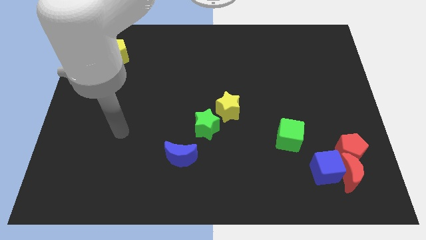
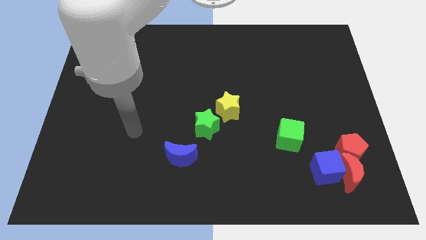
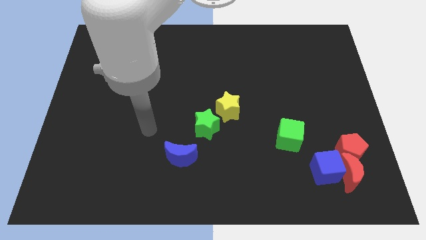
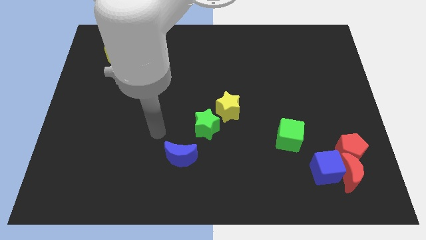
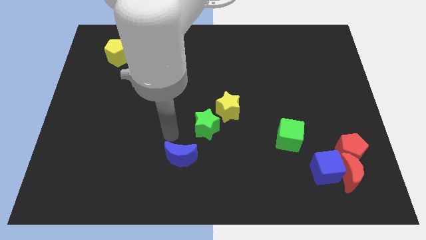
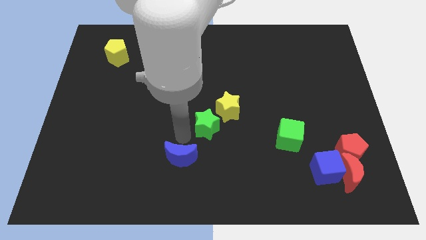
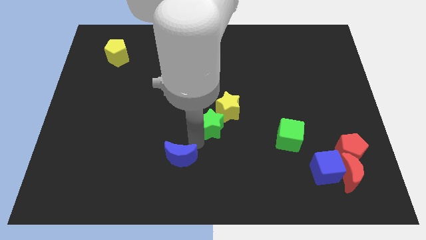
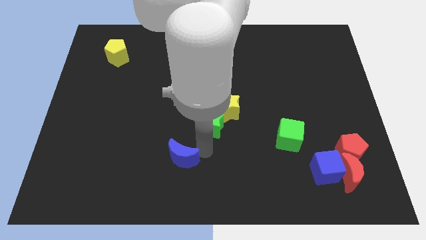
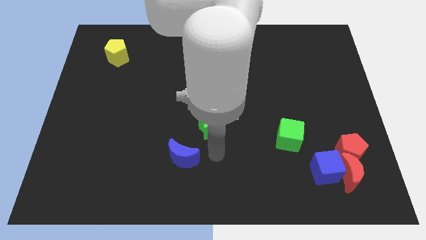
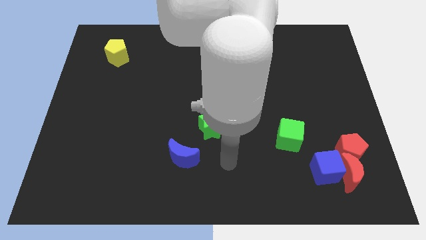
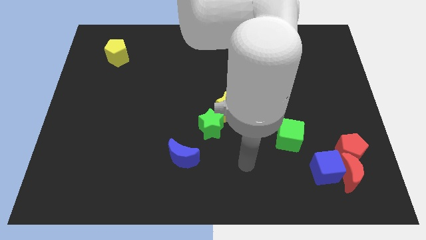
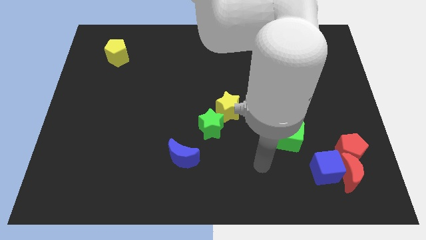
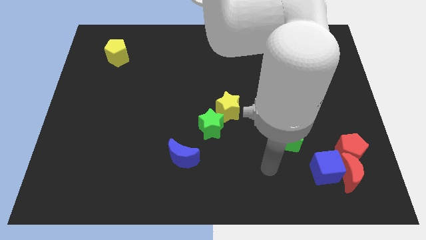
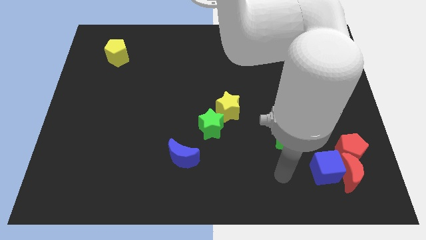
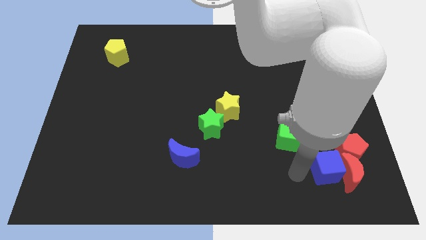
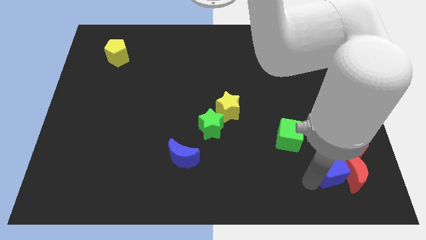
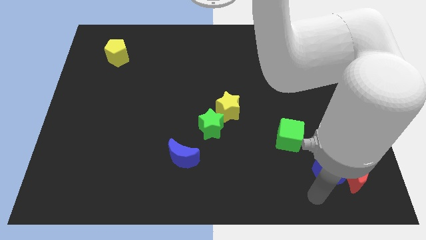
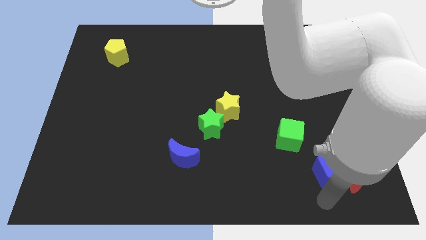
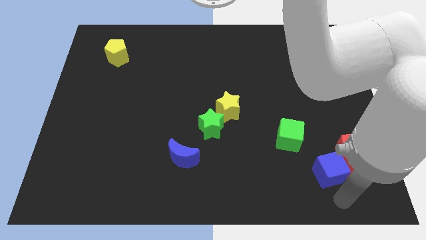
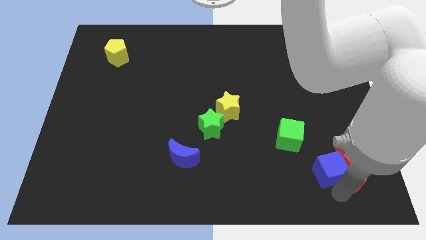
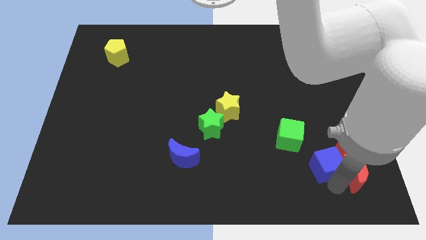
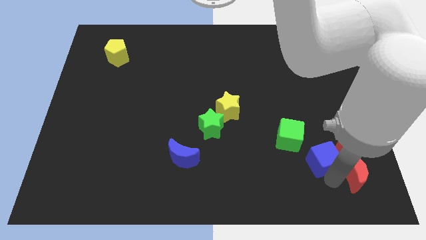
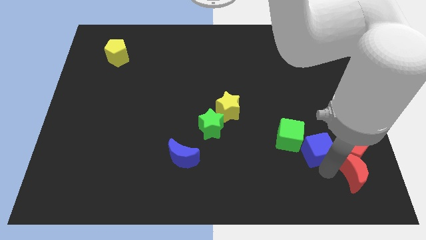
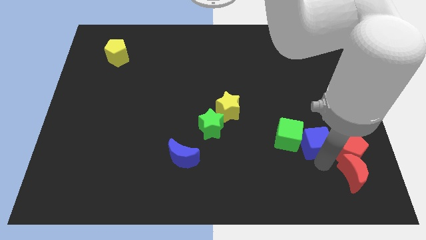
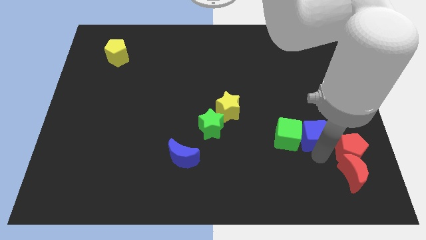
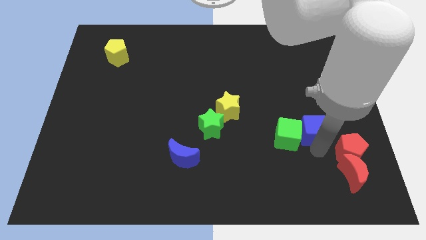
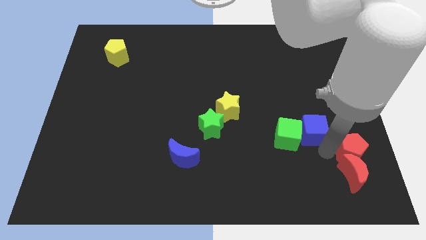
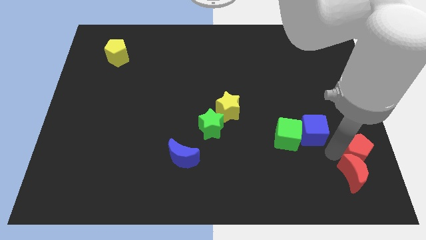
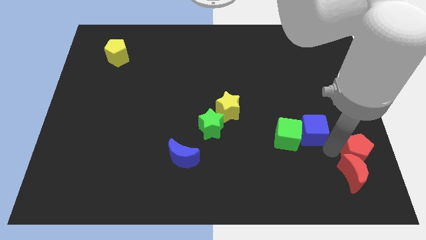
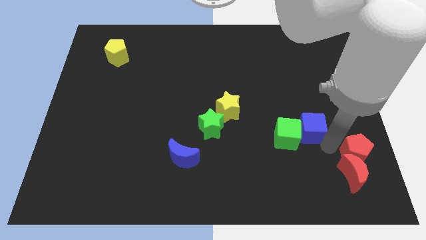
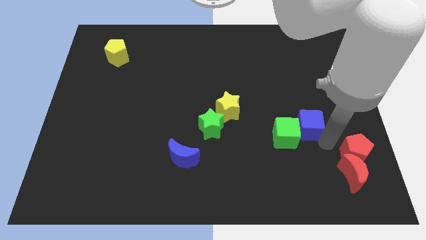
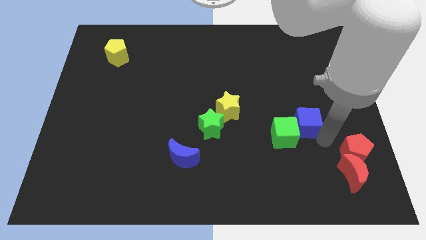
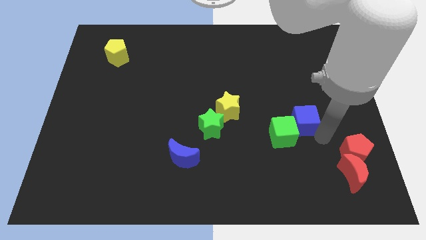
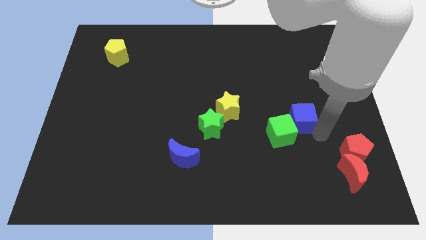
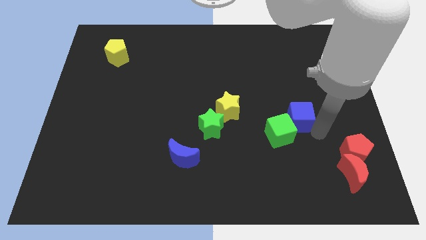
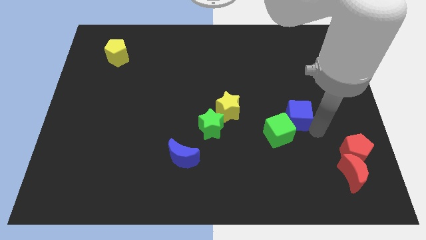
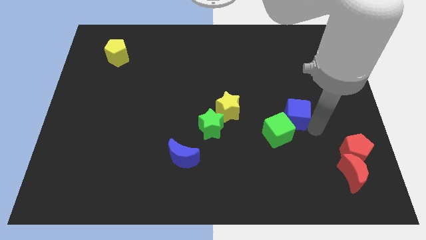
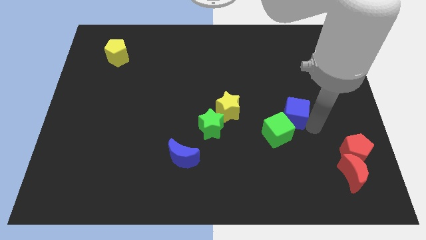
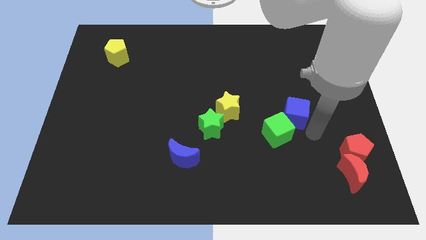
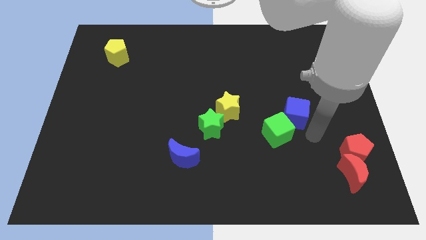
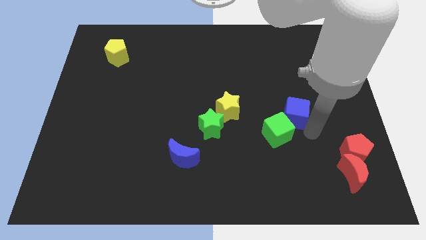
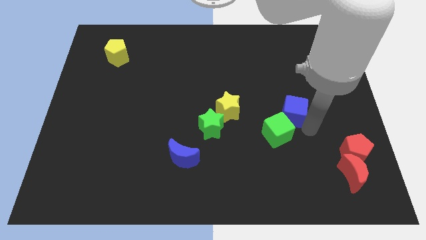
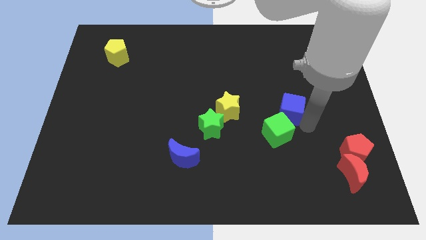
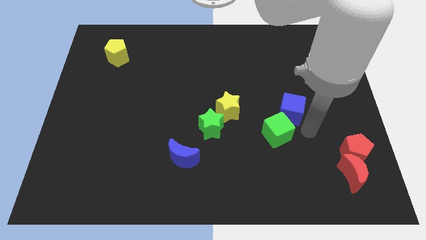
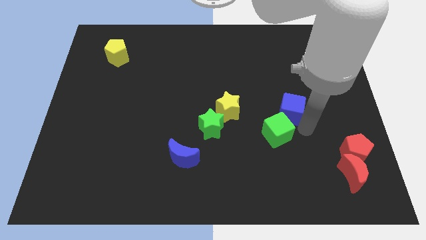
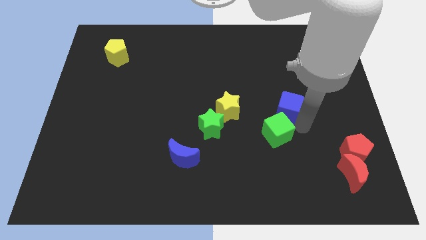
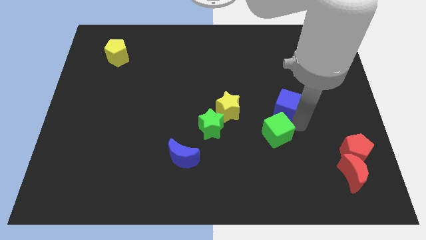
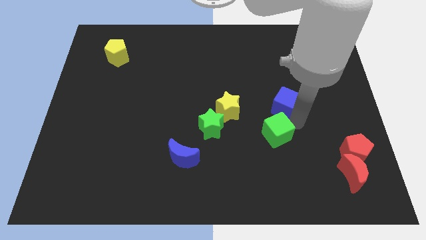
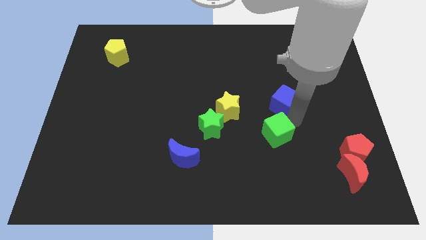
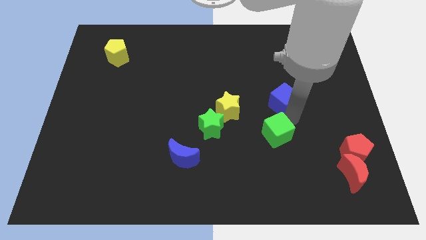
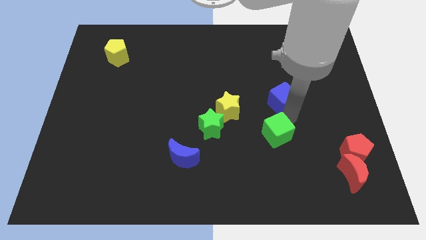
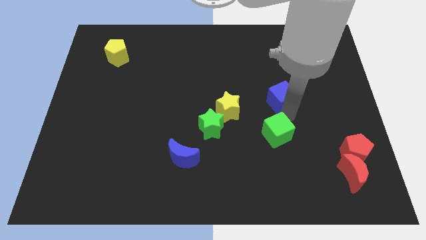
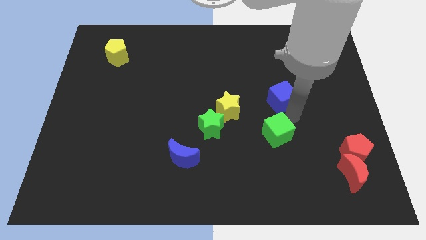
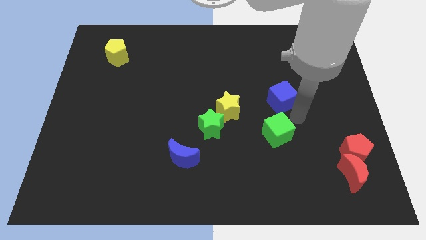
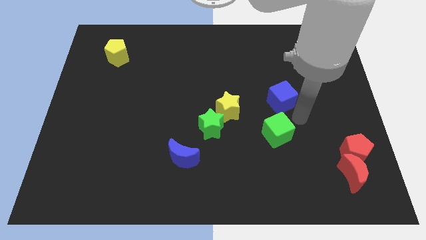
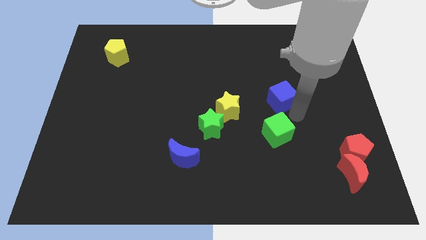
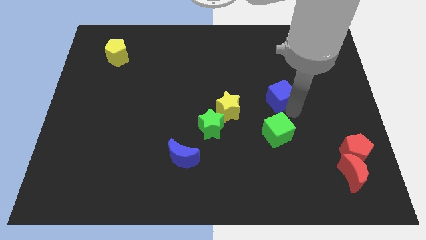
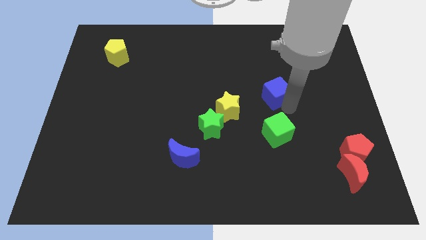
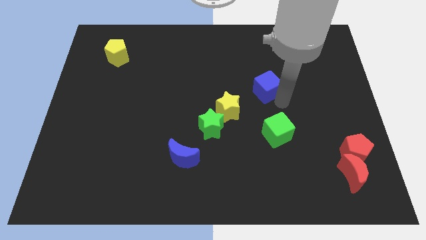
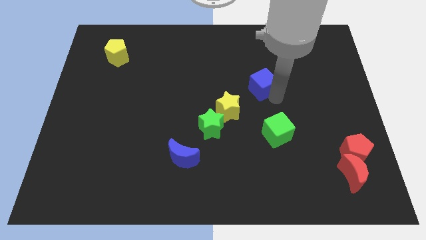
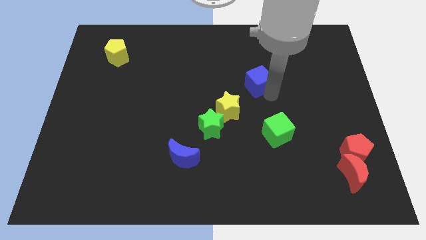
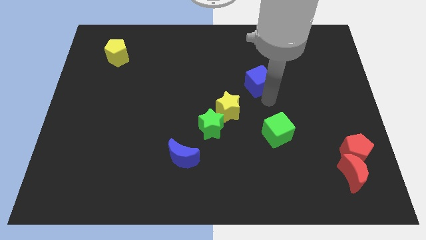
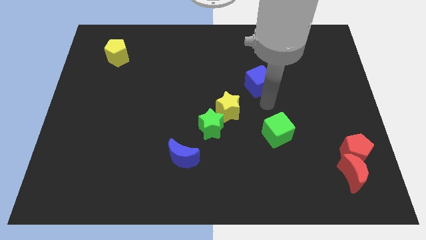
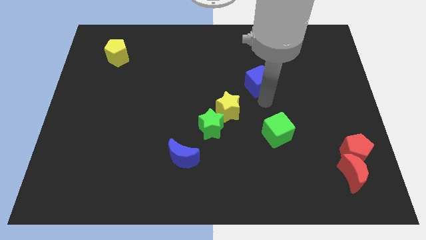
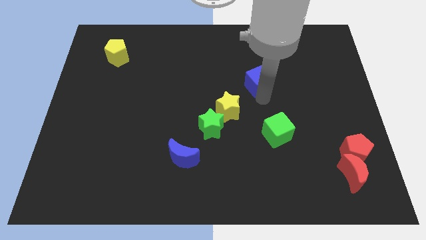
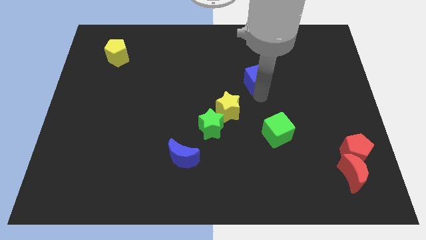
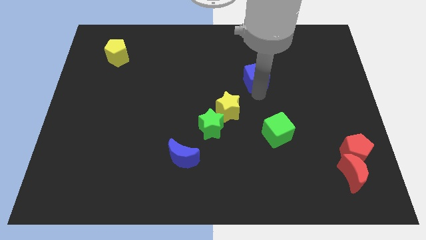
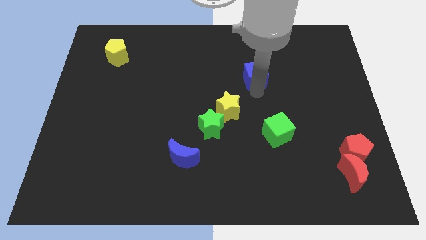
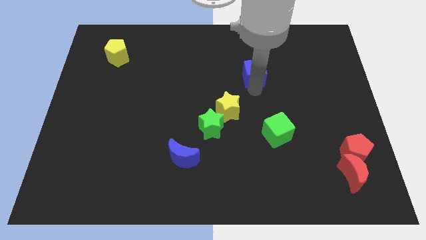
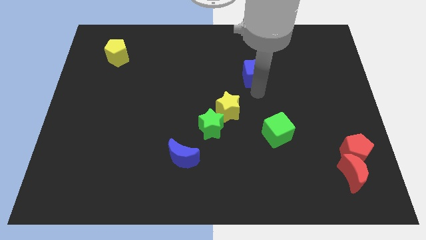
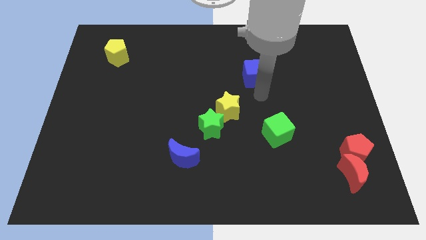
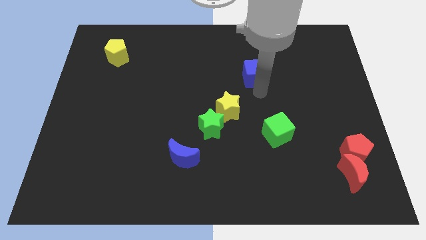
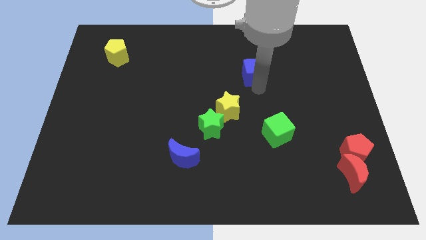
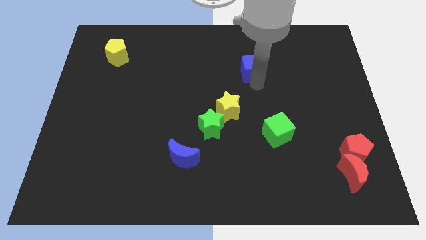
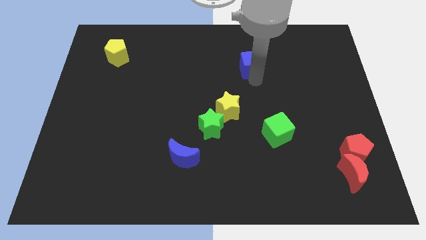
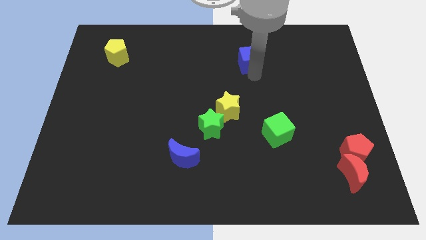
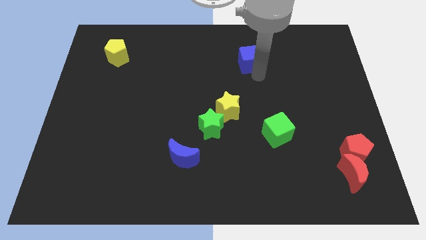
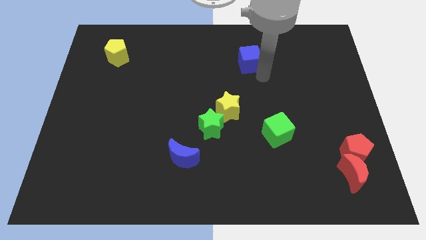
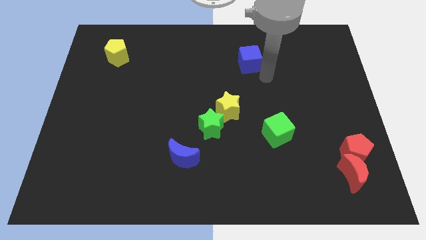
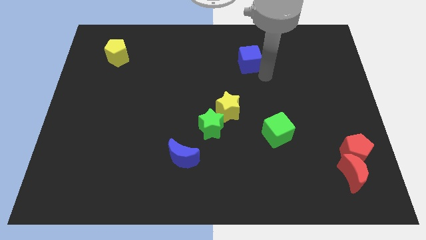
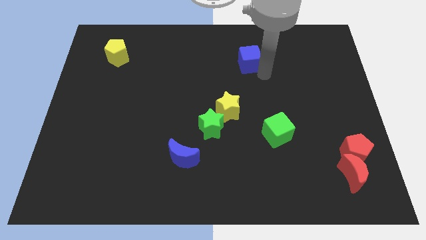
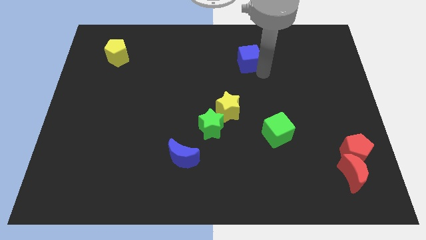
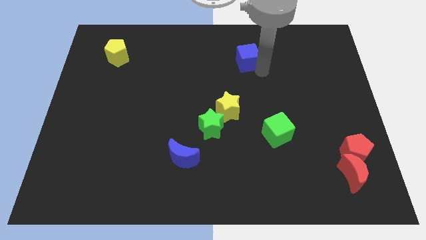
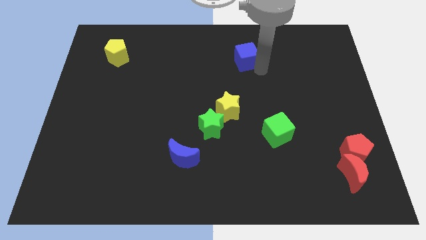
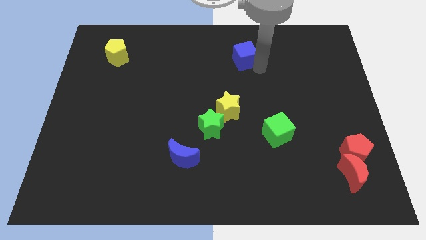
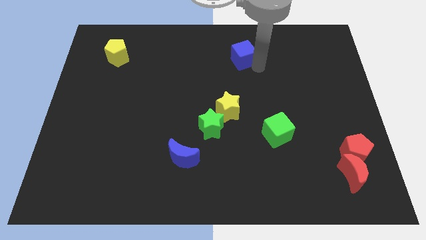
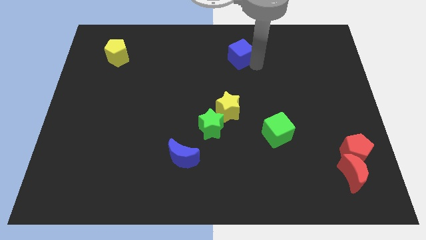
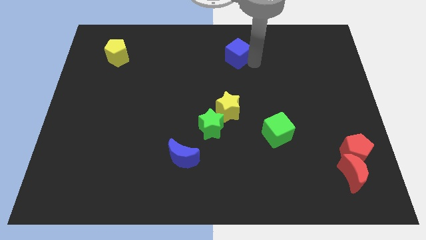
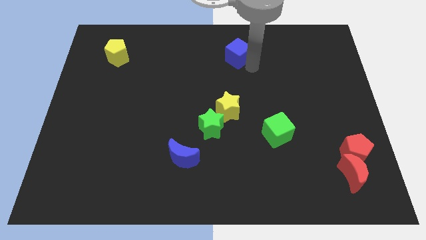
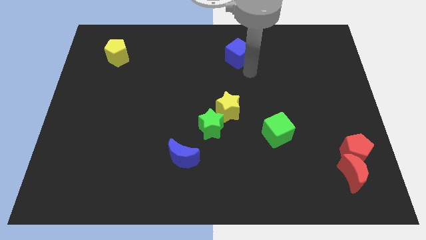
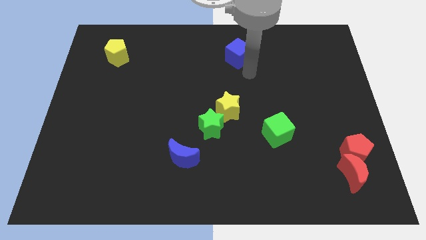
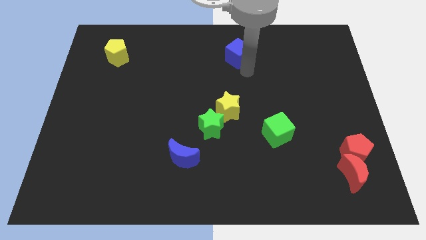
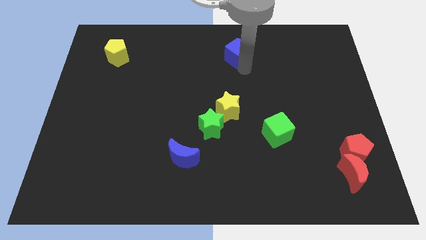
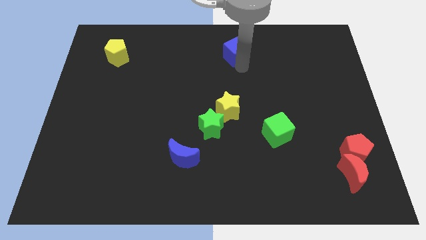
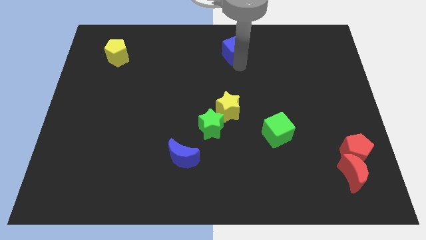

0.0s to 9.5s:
put the blue cube to the top side
